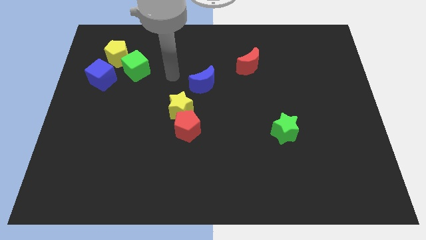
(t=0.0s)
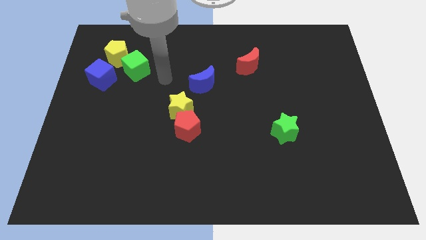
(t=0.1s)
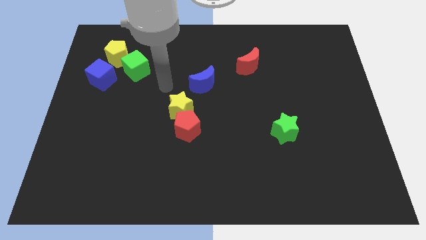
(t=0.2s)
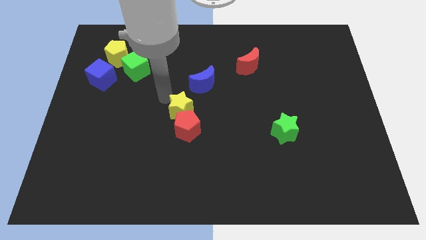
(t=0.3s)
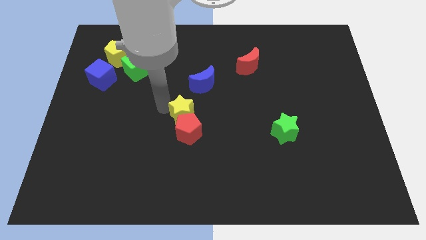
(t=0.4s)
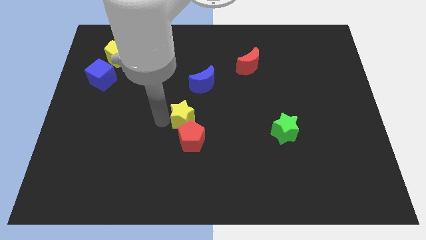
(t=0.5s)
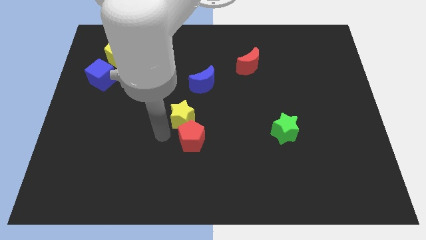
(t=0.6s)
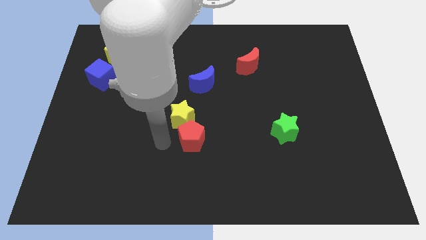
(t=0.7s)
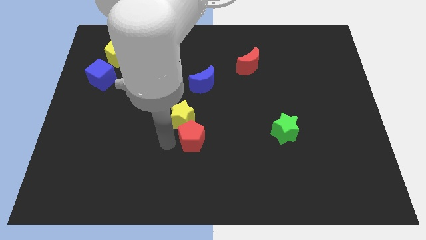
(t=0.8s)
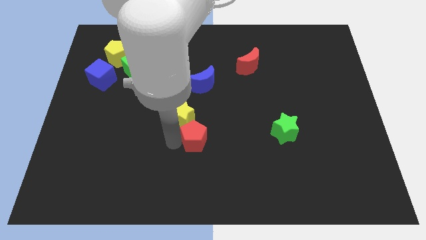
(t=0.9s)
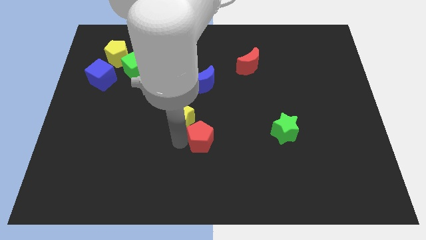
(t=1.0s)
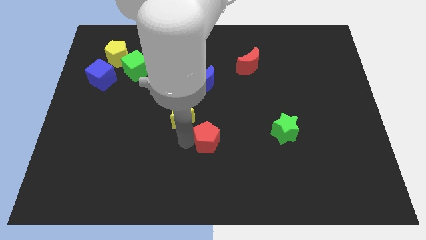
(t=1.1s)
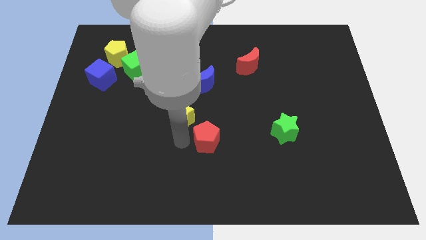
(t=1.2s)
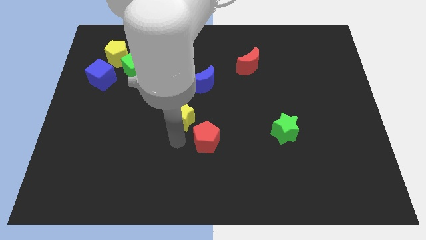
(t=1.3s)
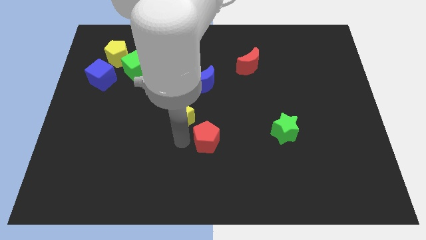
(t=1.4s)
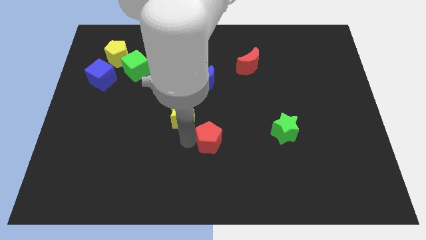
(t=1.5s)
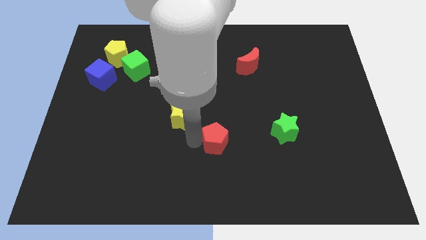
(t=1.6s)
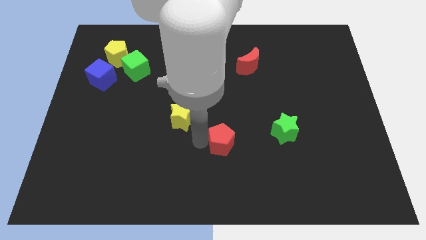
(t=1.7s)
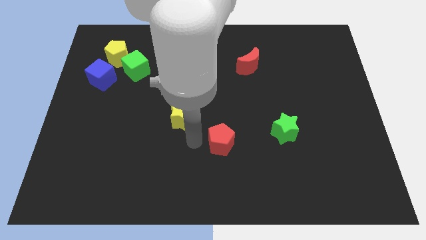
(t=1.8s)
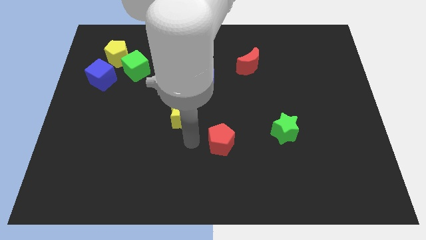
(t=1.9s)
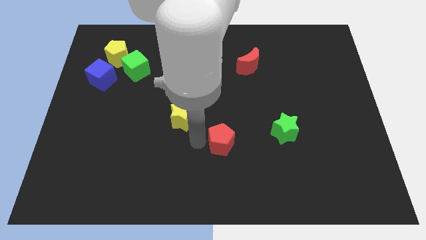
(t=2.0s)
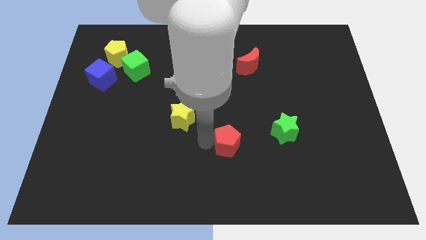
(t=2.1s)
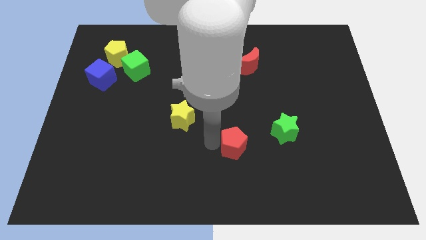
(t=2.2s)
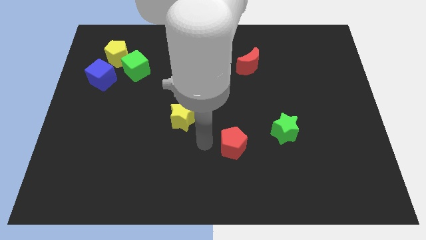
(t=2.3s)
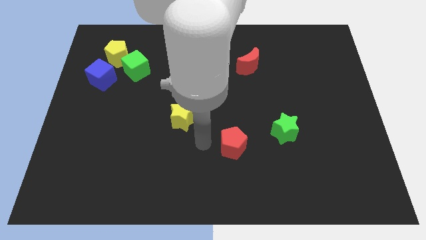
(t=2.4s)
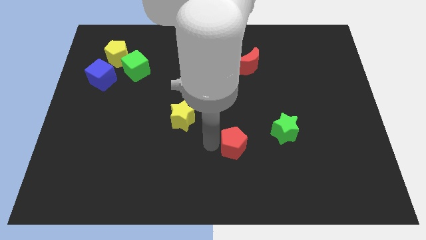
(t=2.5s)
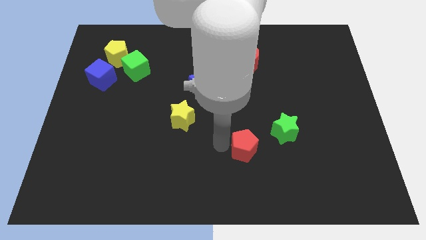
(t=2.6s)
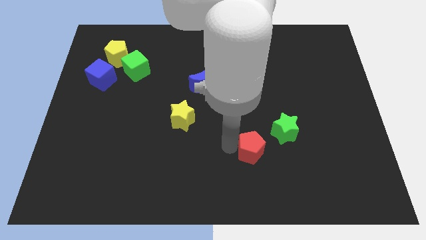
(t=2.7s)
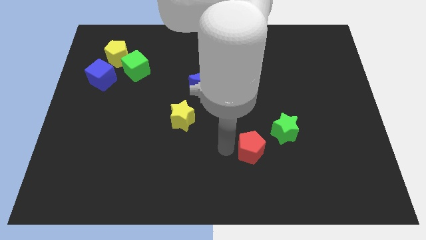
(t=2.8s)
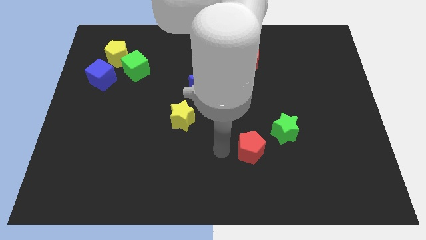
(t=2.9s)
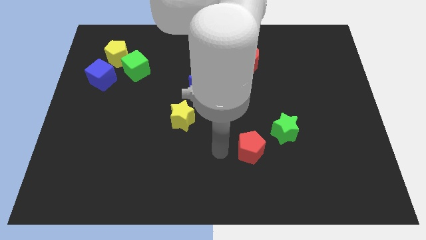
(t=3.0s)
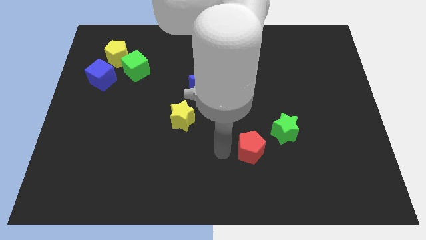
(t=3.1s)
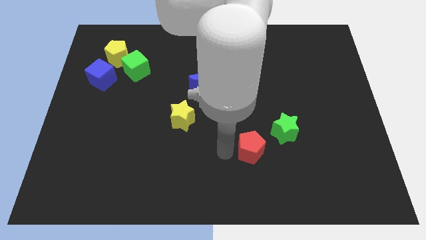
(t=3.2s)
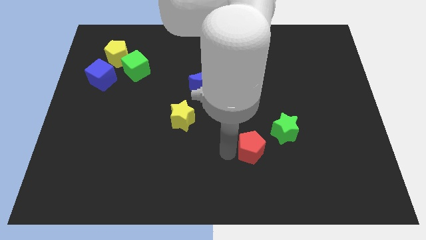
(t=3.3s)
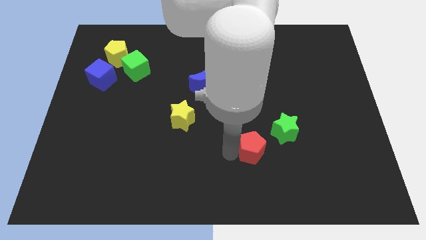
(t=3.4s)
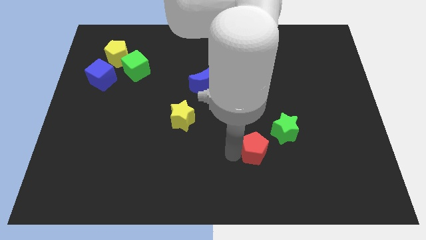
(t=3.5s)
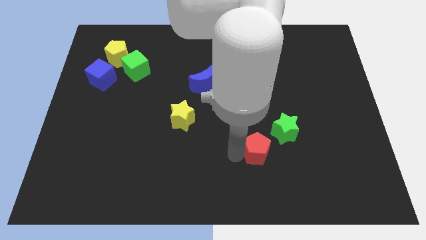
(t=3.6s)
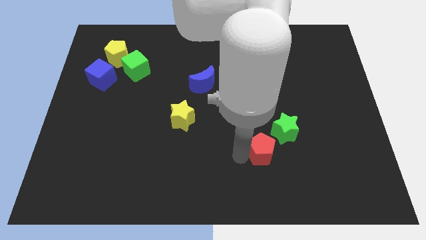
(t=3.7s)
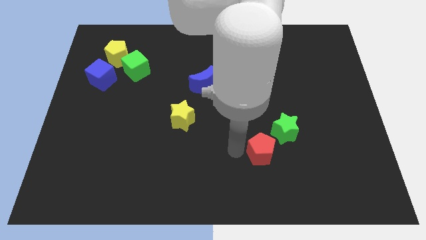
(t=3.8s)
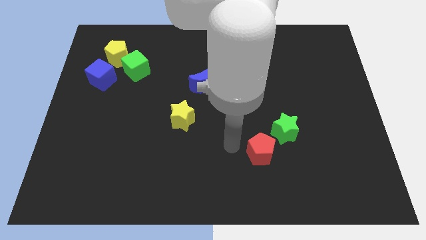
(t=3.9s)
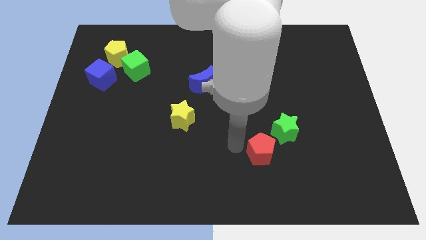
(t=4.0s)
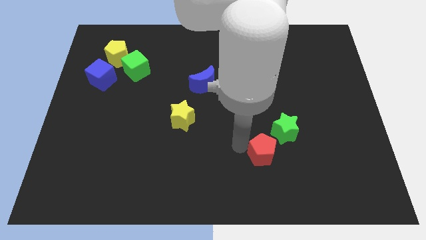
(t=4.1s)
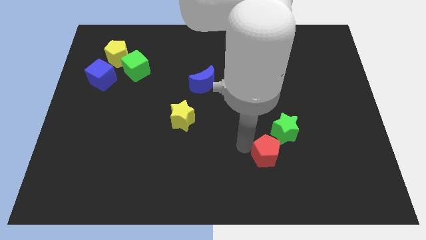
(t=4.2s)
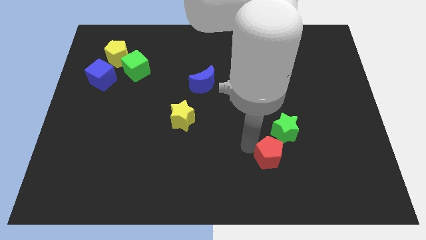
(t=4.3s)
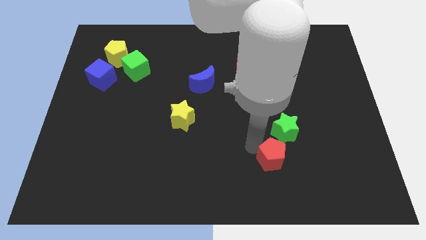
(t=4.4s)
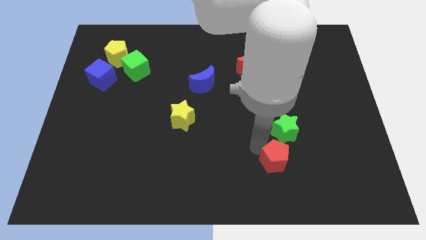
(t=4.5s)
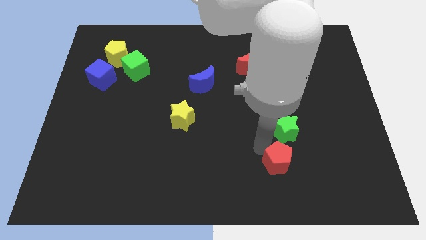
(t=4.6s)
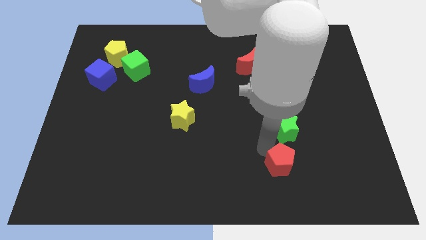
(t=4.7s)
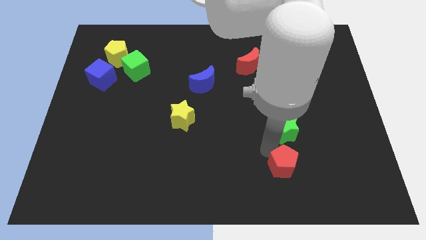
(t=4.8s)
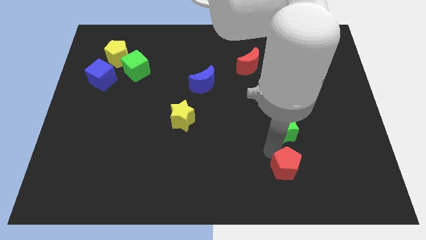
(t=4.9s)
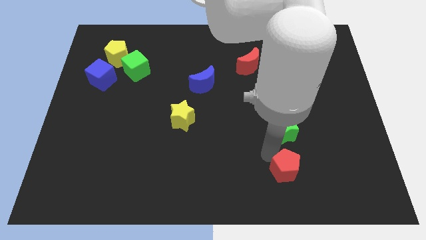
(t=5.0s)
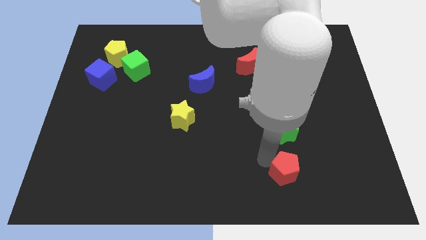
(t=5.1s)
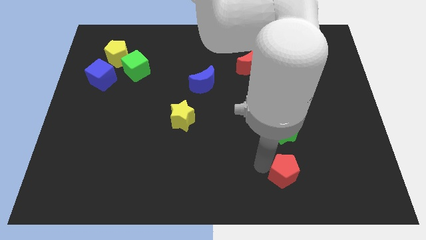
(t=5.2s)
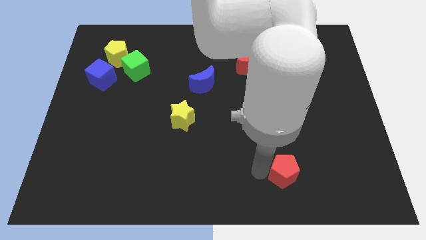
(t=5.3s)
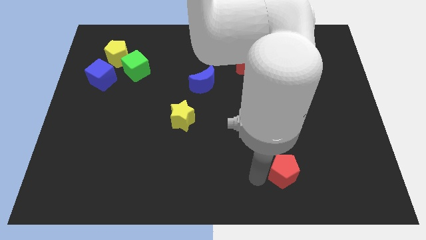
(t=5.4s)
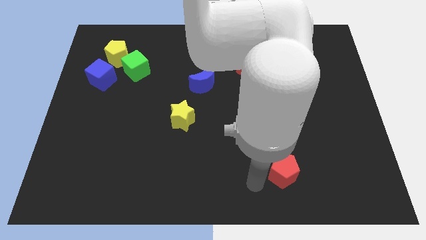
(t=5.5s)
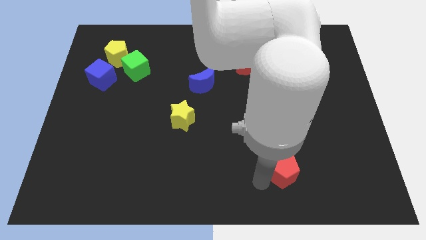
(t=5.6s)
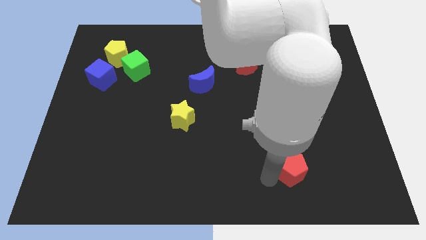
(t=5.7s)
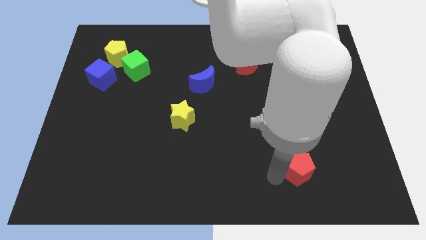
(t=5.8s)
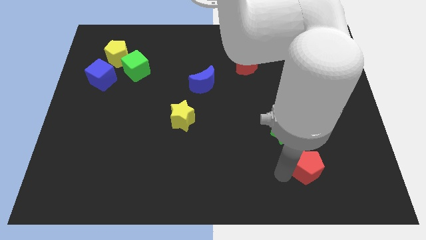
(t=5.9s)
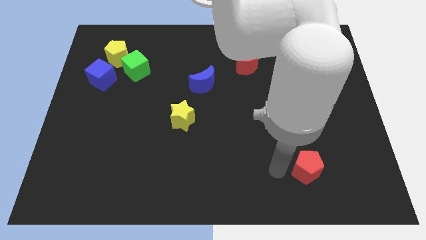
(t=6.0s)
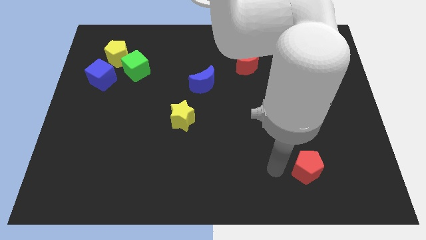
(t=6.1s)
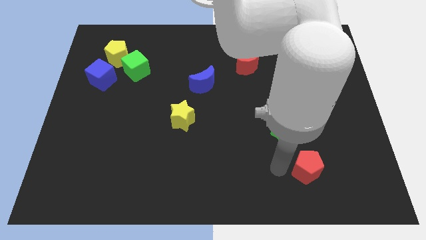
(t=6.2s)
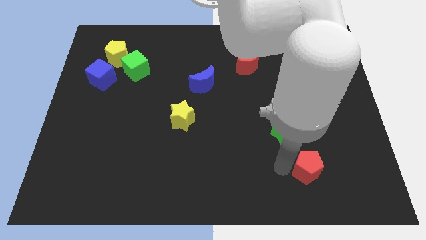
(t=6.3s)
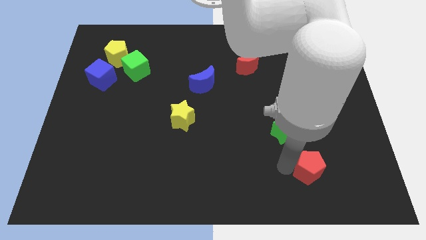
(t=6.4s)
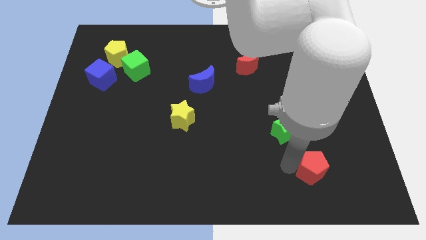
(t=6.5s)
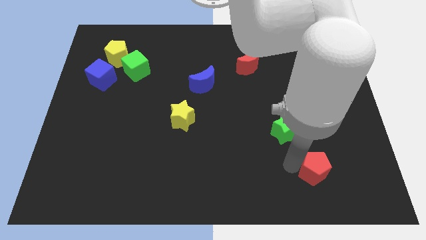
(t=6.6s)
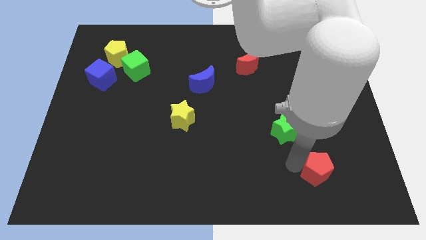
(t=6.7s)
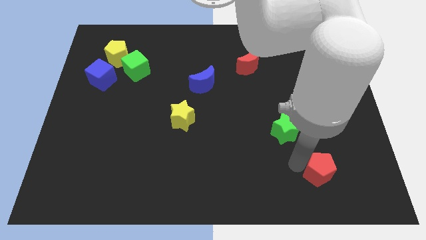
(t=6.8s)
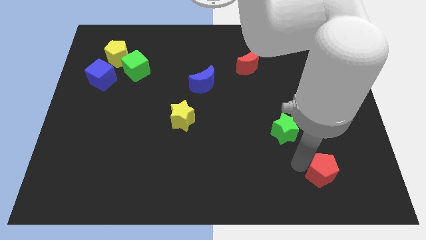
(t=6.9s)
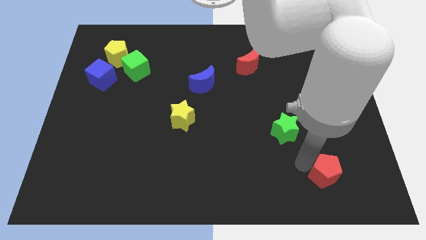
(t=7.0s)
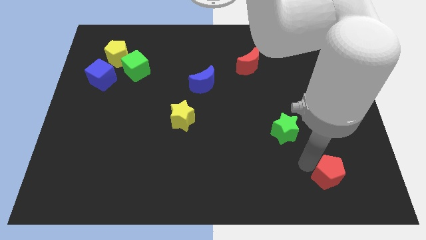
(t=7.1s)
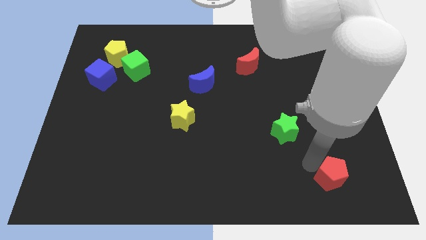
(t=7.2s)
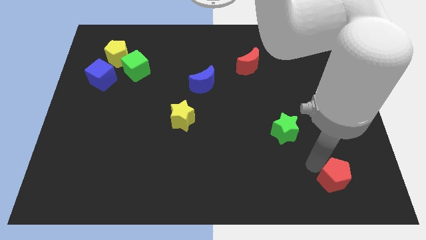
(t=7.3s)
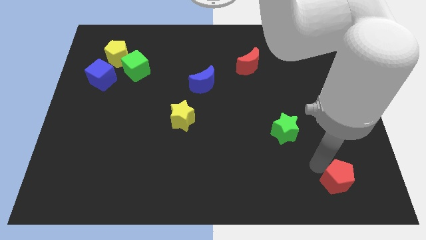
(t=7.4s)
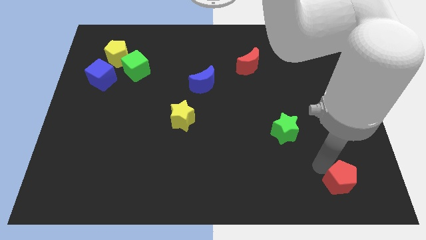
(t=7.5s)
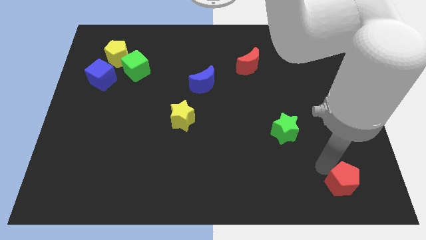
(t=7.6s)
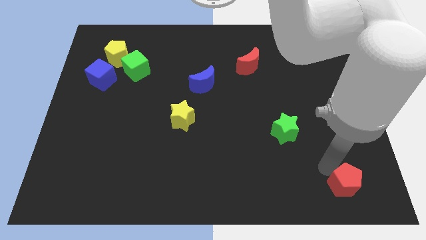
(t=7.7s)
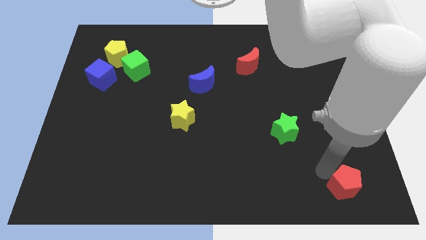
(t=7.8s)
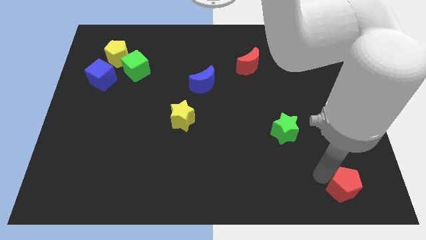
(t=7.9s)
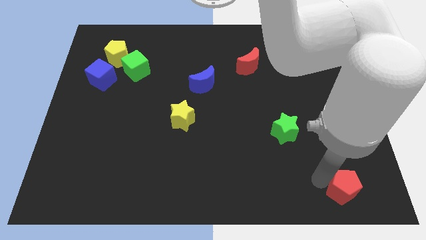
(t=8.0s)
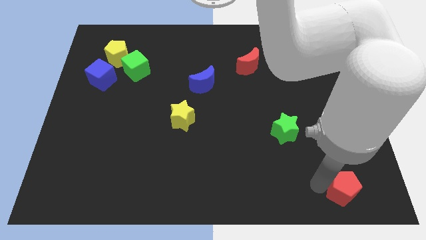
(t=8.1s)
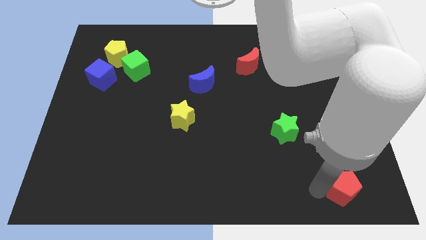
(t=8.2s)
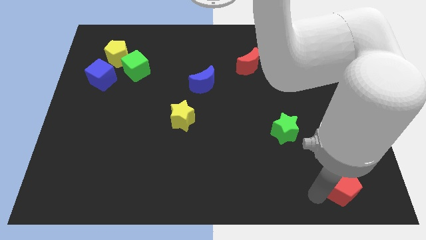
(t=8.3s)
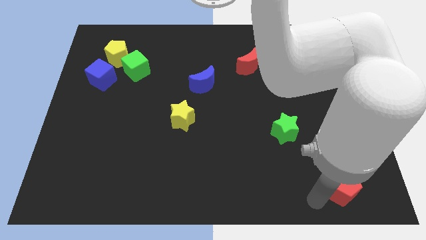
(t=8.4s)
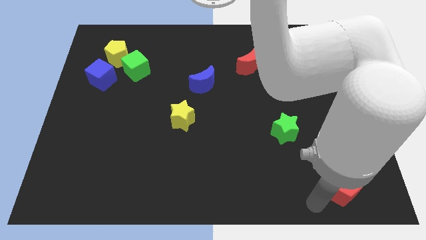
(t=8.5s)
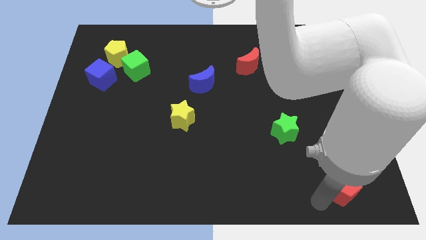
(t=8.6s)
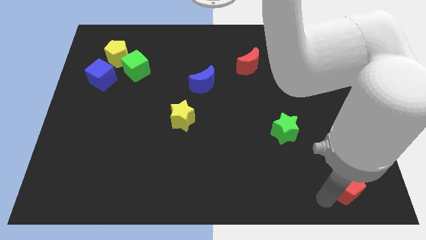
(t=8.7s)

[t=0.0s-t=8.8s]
slide the red pentagon to the bottom right corner
